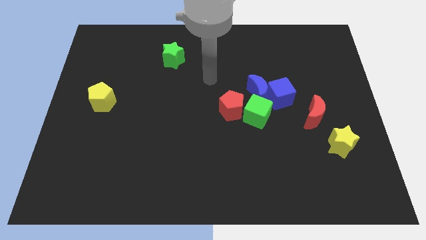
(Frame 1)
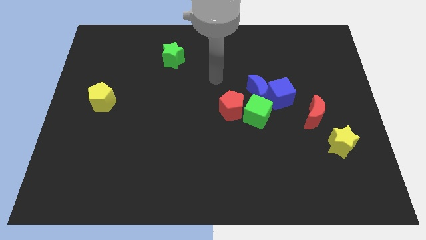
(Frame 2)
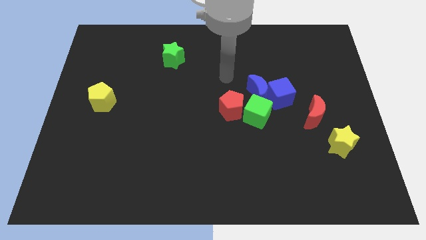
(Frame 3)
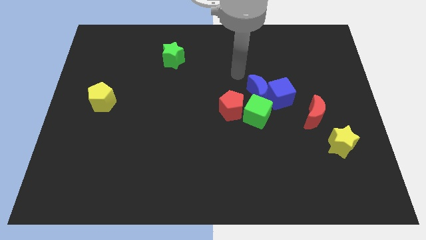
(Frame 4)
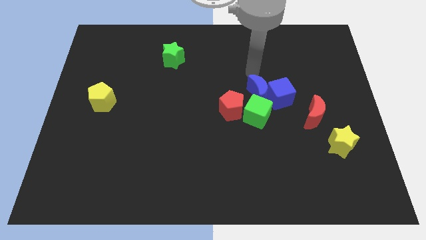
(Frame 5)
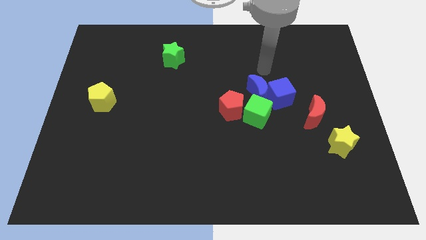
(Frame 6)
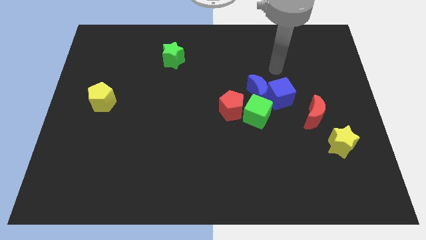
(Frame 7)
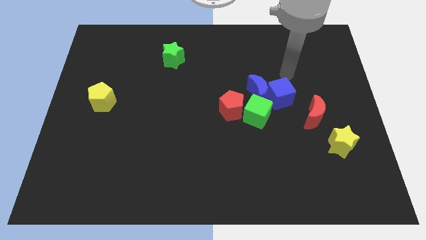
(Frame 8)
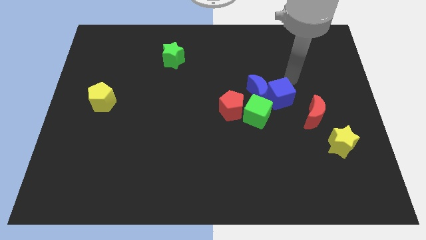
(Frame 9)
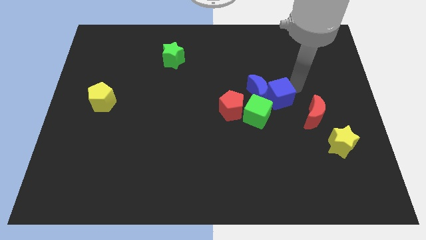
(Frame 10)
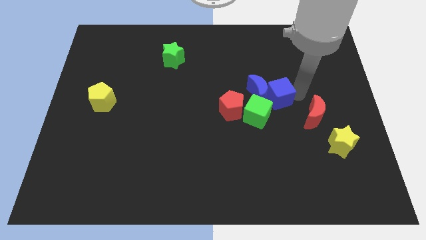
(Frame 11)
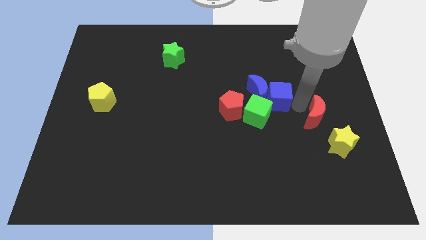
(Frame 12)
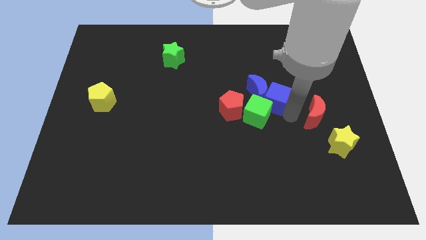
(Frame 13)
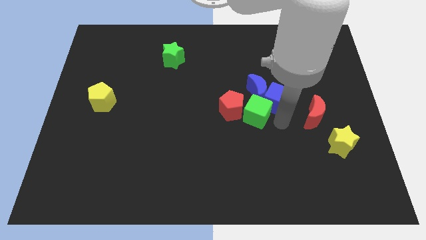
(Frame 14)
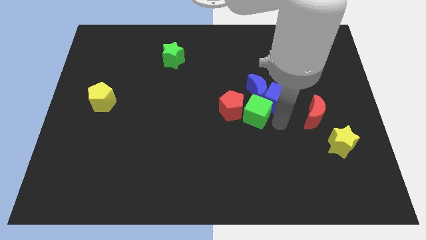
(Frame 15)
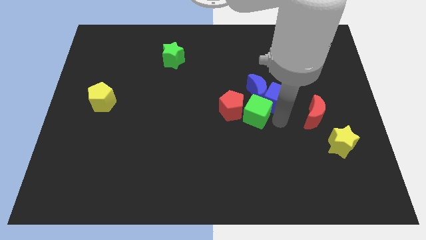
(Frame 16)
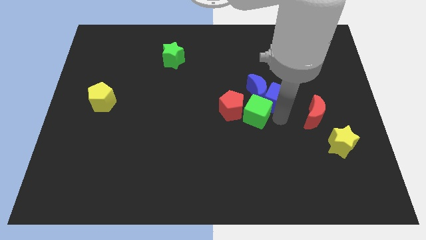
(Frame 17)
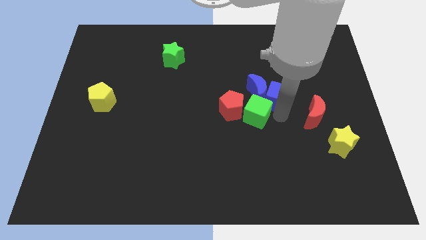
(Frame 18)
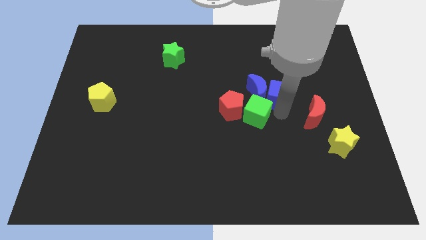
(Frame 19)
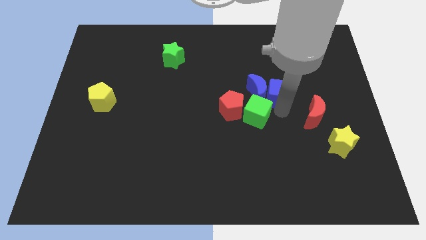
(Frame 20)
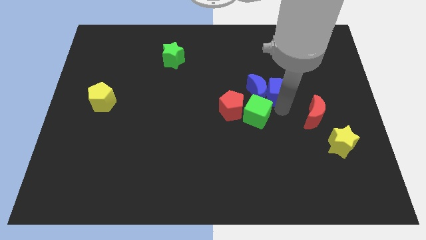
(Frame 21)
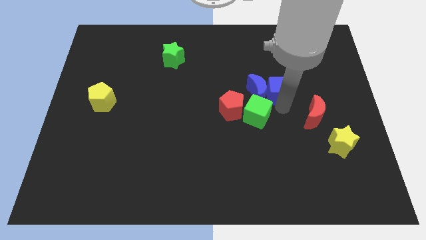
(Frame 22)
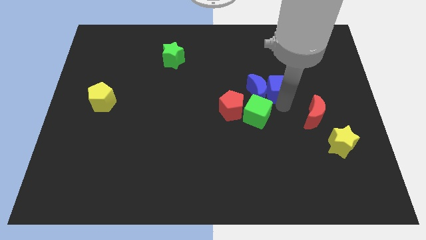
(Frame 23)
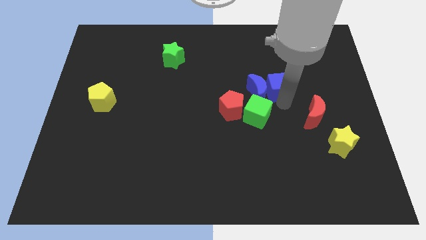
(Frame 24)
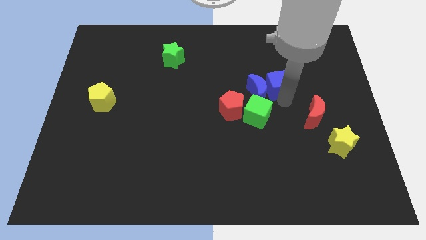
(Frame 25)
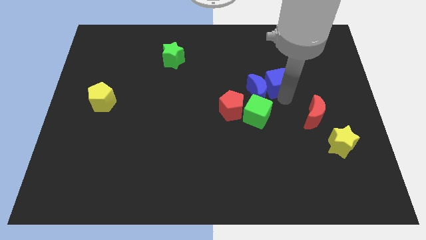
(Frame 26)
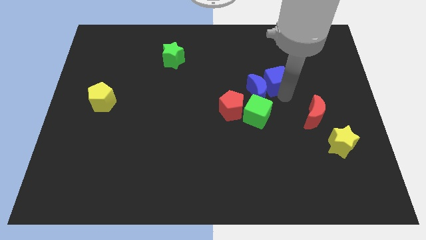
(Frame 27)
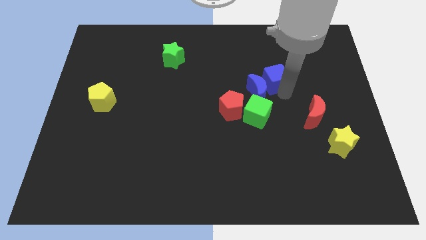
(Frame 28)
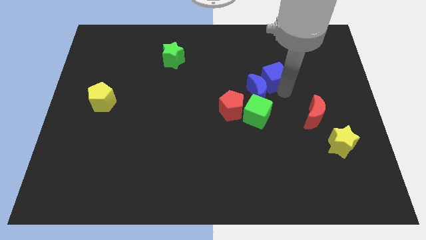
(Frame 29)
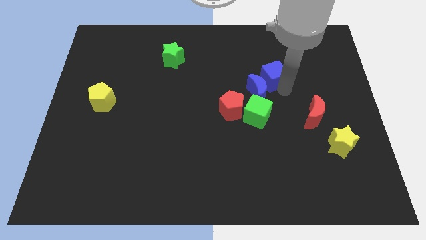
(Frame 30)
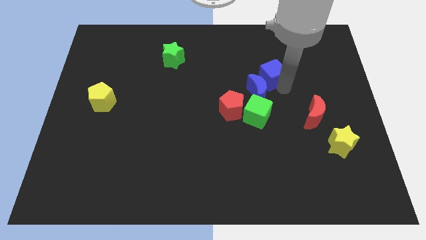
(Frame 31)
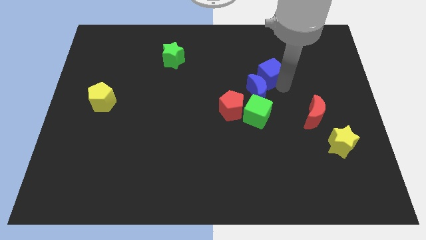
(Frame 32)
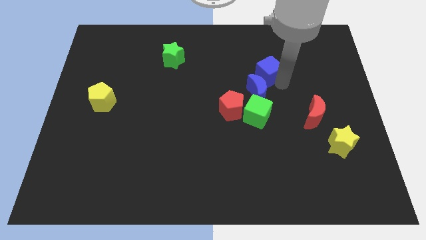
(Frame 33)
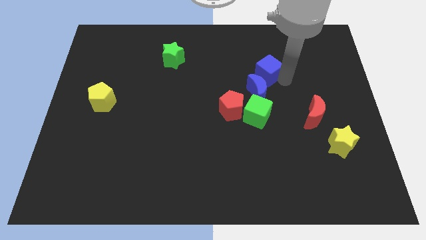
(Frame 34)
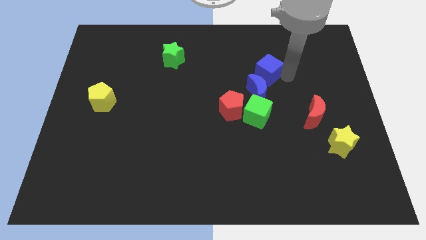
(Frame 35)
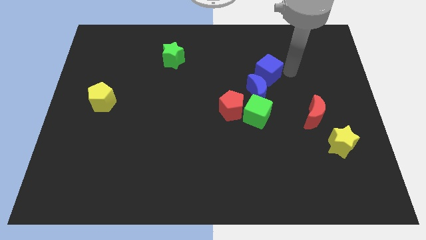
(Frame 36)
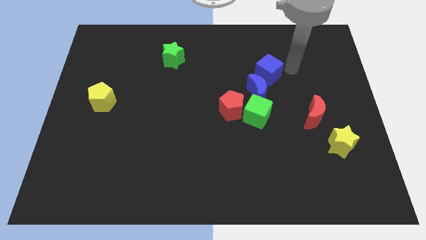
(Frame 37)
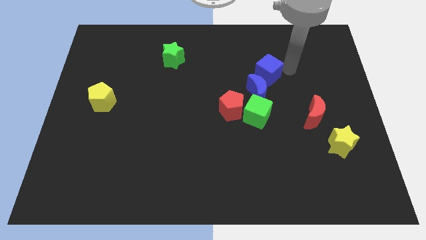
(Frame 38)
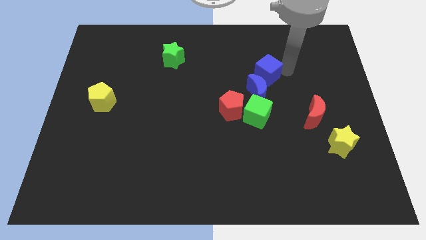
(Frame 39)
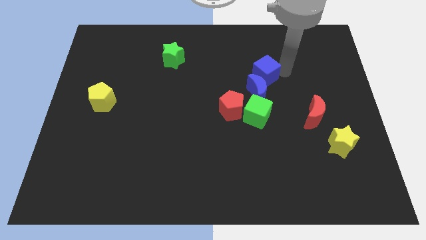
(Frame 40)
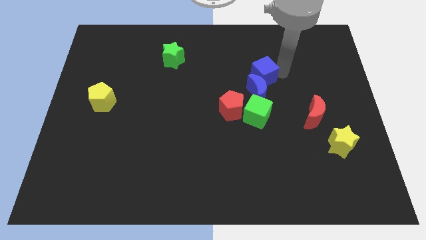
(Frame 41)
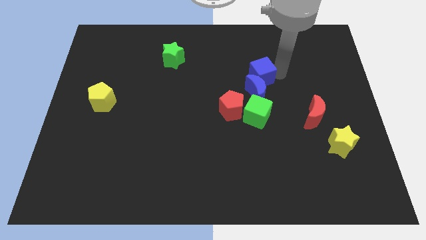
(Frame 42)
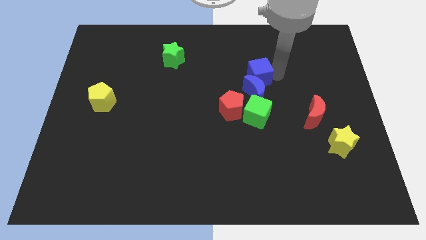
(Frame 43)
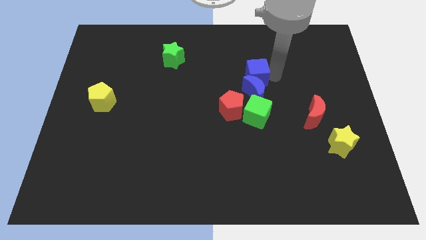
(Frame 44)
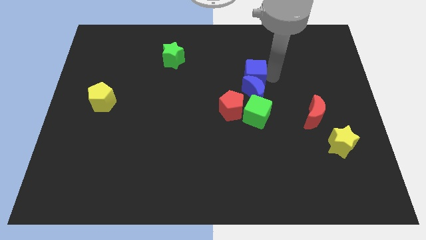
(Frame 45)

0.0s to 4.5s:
move the blue cube to the middle

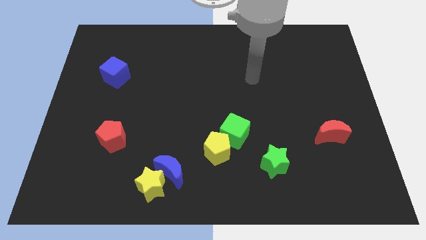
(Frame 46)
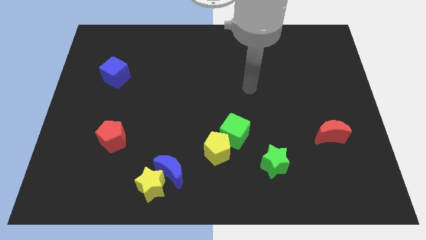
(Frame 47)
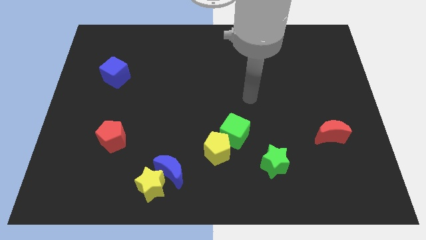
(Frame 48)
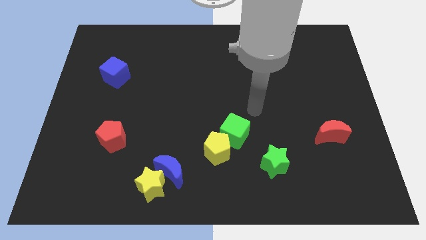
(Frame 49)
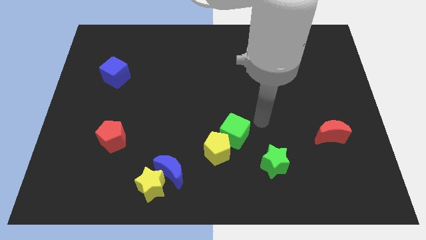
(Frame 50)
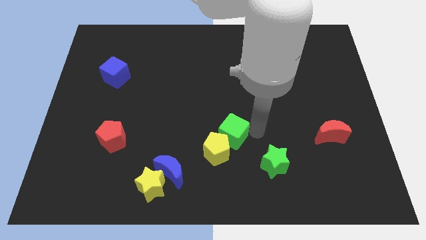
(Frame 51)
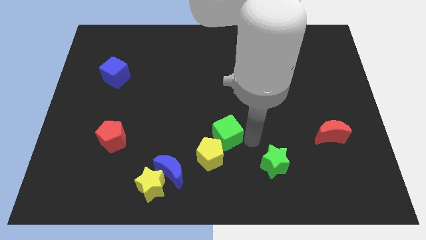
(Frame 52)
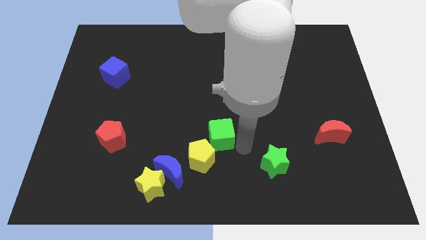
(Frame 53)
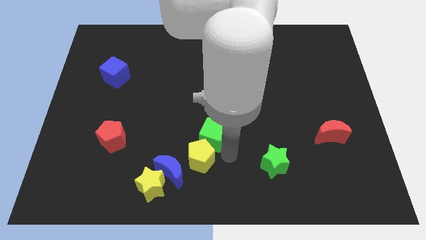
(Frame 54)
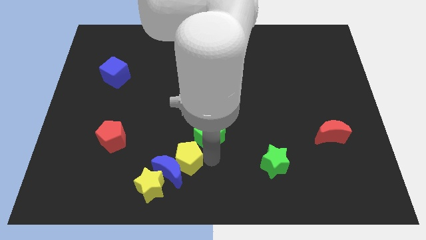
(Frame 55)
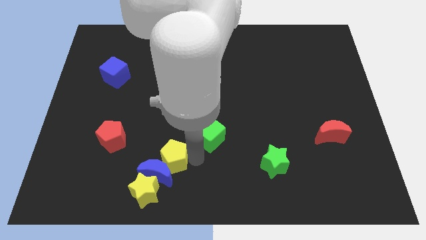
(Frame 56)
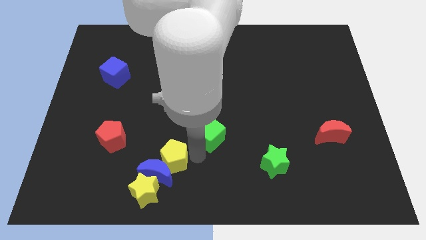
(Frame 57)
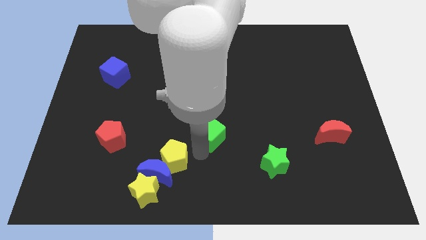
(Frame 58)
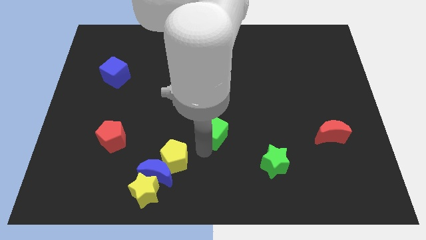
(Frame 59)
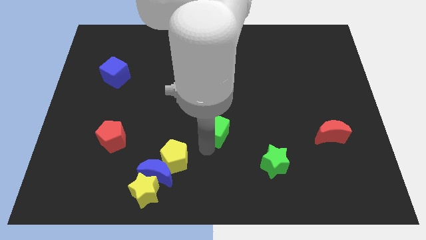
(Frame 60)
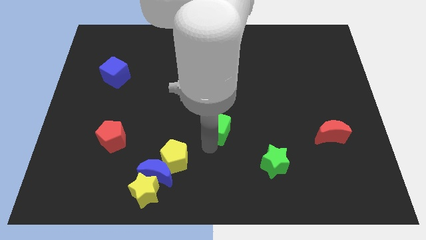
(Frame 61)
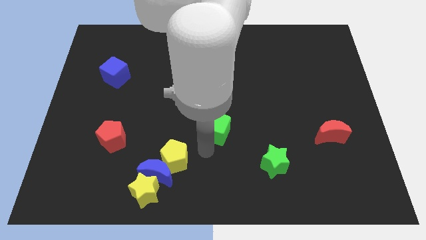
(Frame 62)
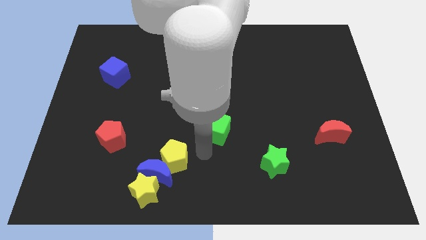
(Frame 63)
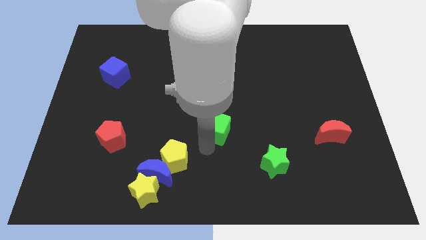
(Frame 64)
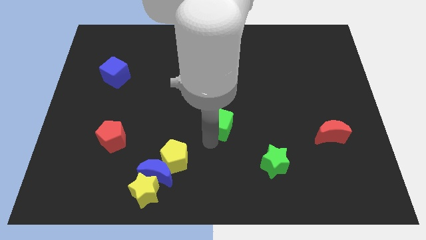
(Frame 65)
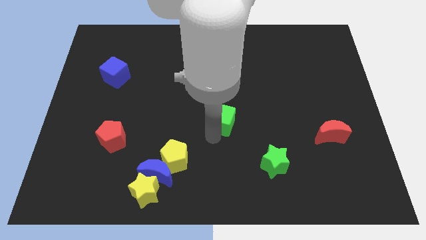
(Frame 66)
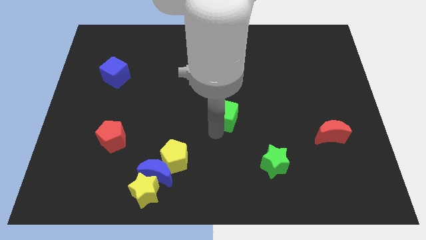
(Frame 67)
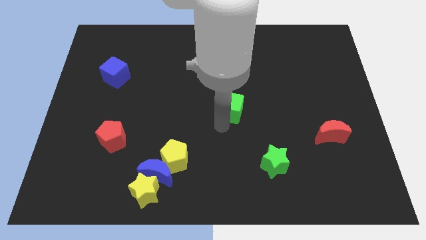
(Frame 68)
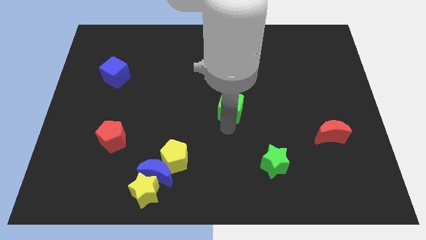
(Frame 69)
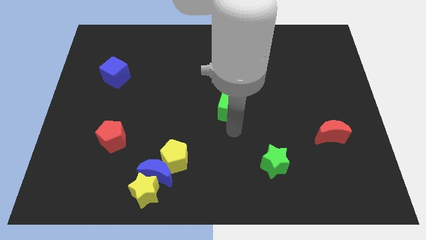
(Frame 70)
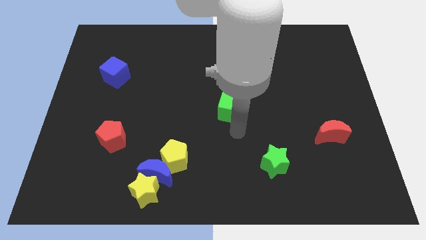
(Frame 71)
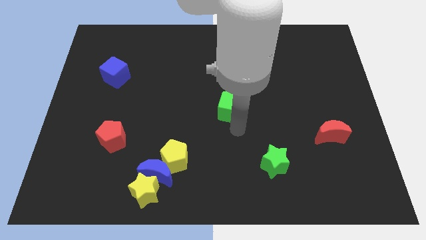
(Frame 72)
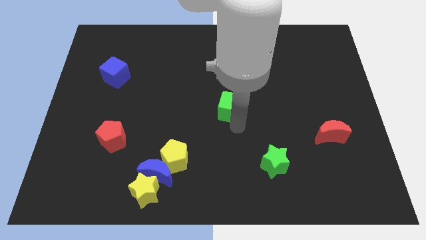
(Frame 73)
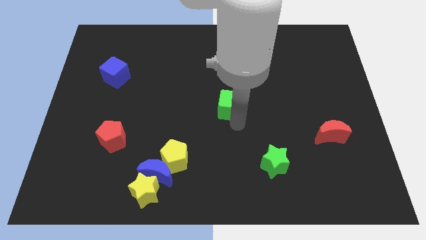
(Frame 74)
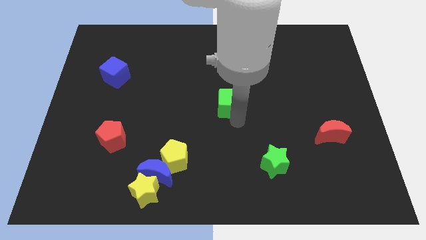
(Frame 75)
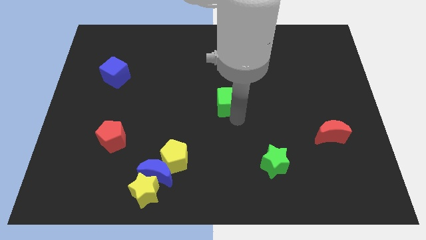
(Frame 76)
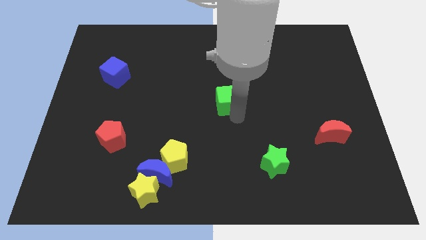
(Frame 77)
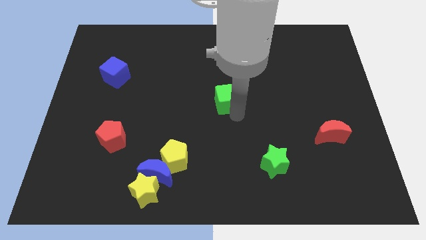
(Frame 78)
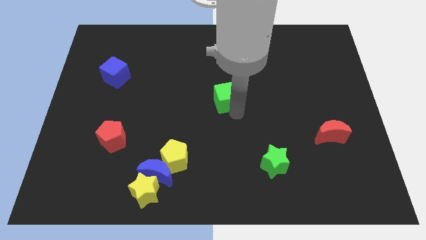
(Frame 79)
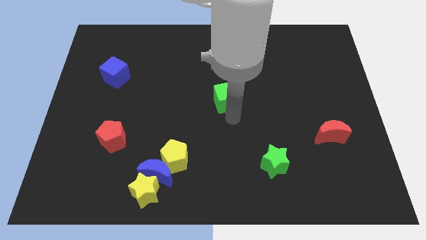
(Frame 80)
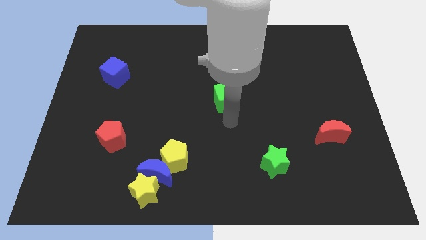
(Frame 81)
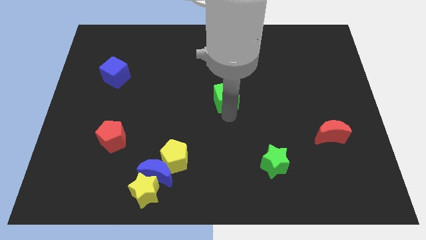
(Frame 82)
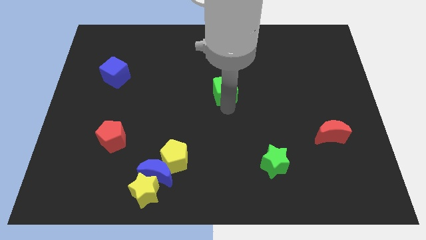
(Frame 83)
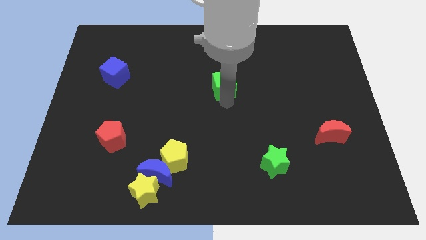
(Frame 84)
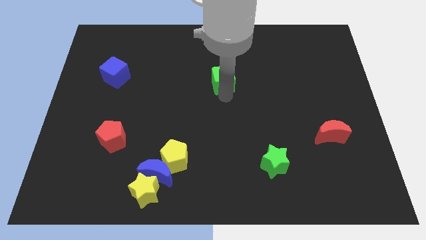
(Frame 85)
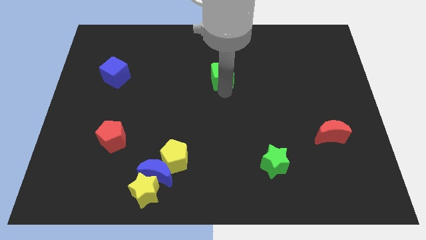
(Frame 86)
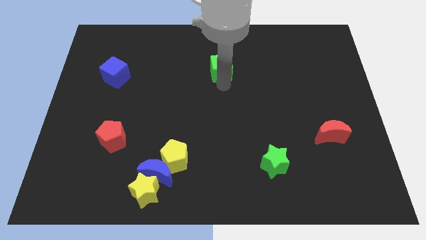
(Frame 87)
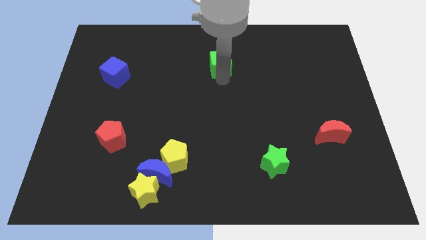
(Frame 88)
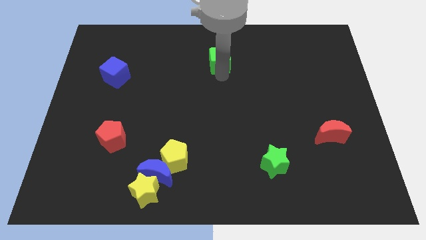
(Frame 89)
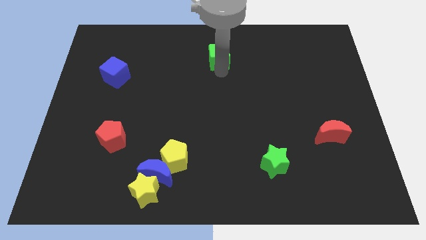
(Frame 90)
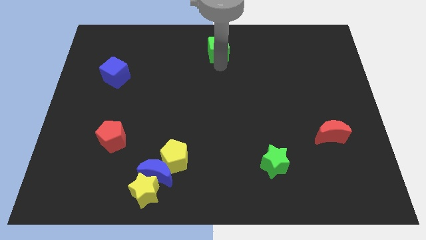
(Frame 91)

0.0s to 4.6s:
put the green cube to the towards your base
